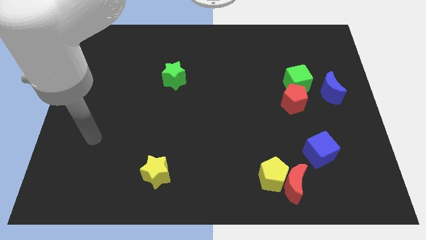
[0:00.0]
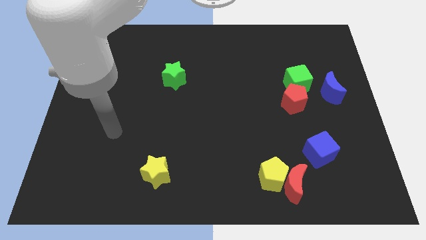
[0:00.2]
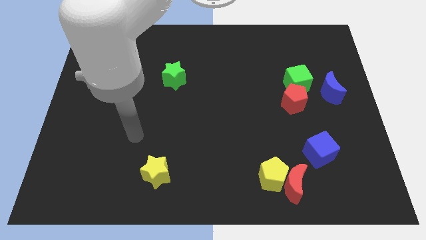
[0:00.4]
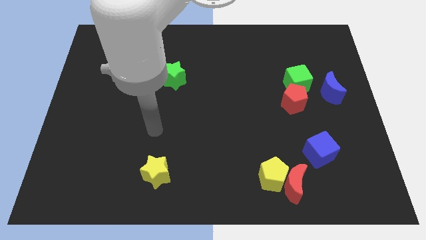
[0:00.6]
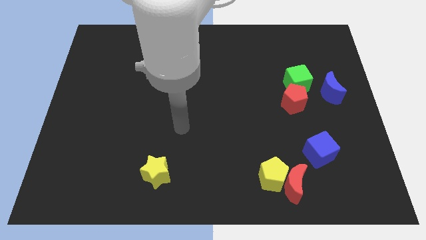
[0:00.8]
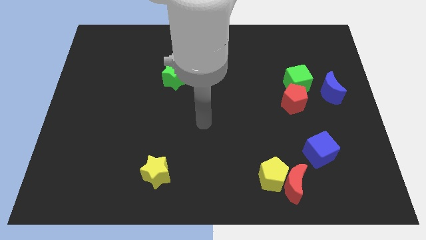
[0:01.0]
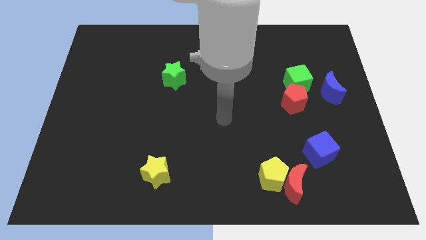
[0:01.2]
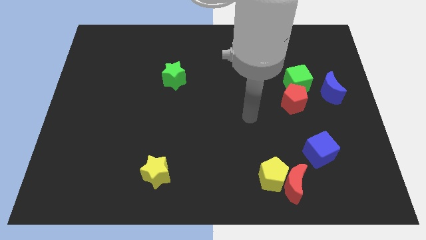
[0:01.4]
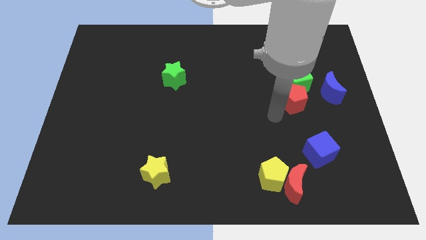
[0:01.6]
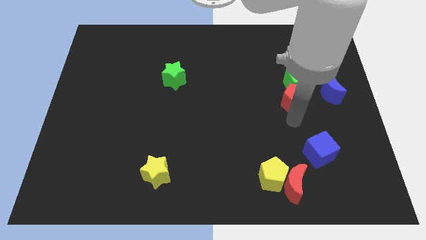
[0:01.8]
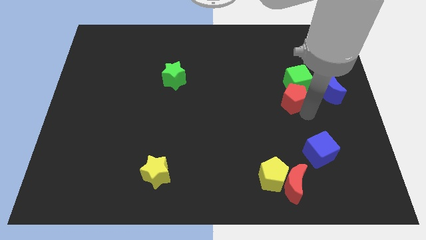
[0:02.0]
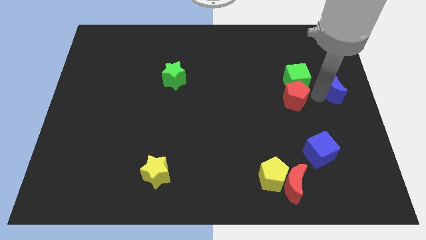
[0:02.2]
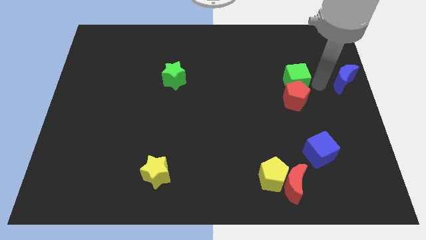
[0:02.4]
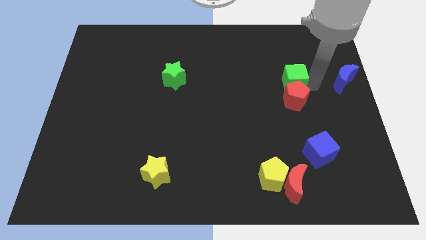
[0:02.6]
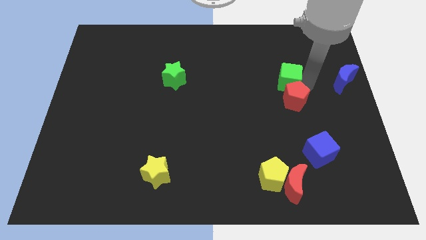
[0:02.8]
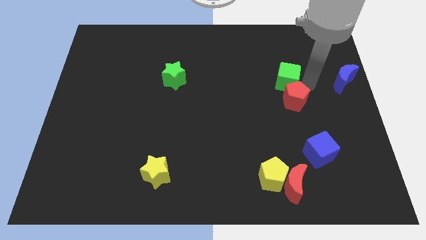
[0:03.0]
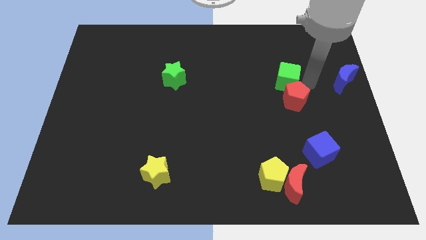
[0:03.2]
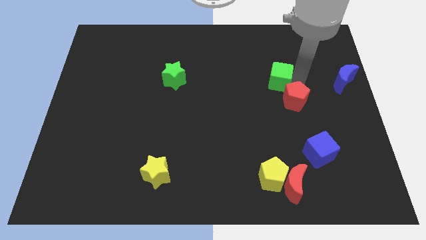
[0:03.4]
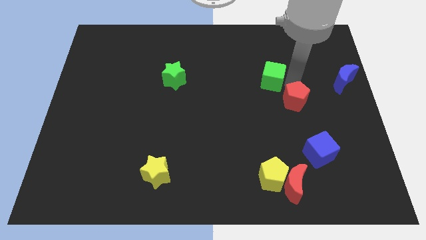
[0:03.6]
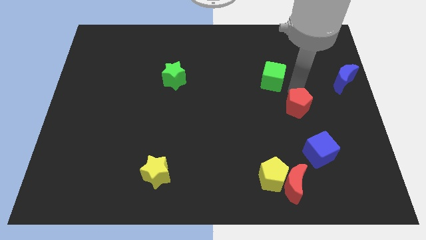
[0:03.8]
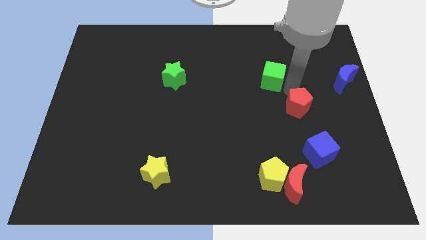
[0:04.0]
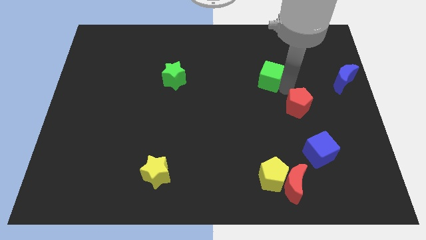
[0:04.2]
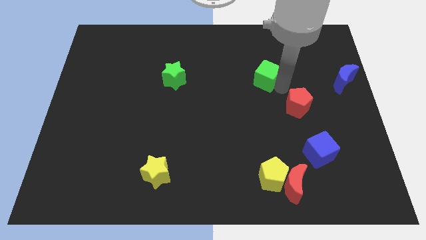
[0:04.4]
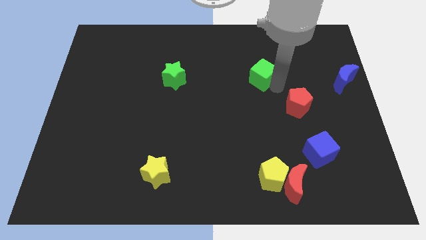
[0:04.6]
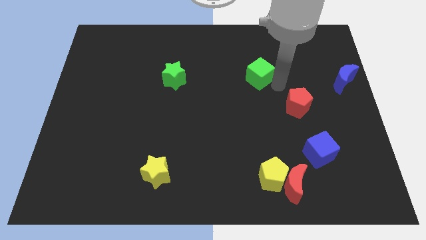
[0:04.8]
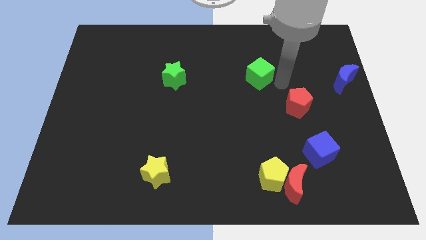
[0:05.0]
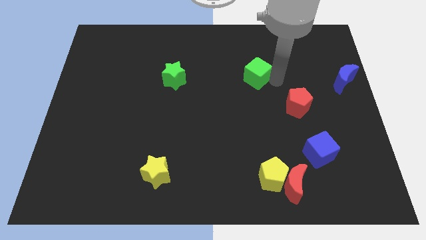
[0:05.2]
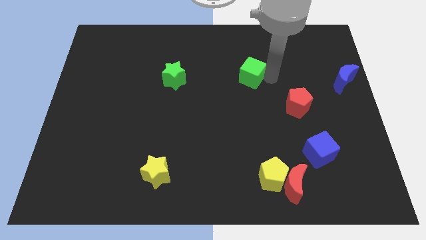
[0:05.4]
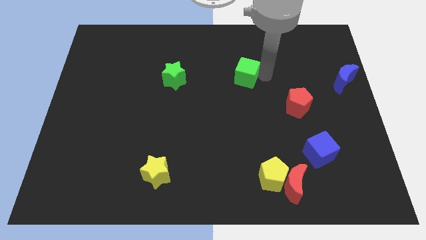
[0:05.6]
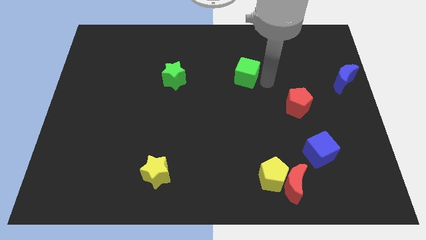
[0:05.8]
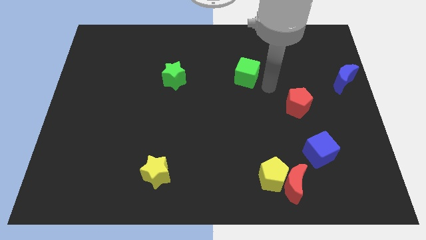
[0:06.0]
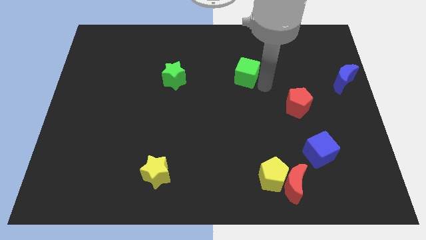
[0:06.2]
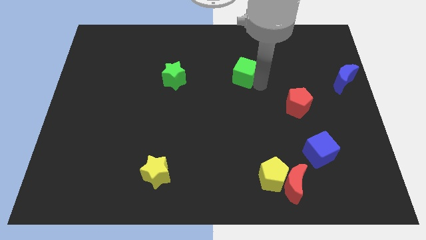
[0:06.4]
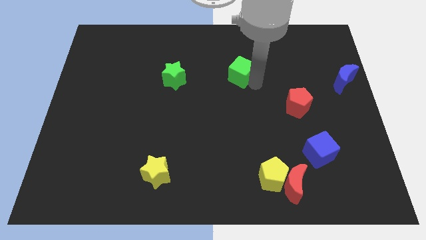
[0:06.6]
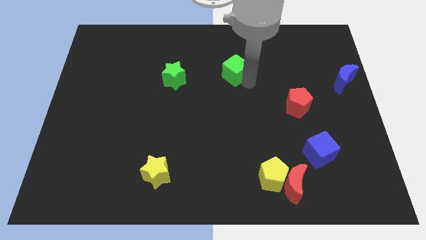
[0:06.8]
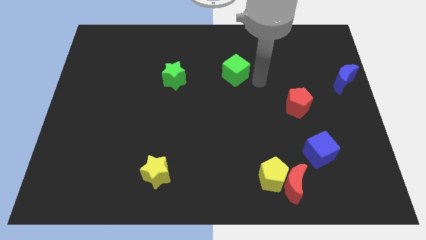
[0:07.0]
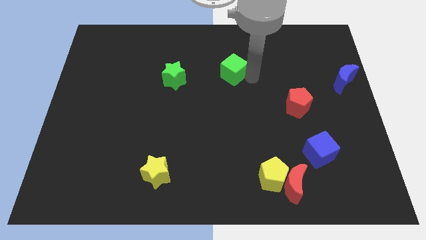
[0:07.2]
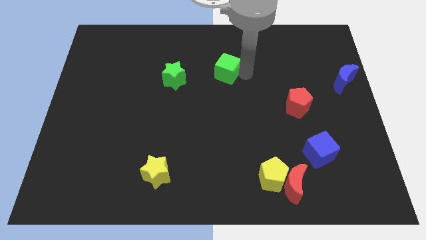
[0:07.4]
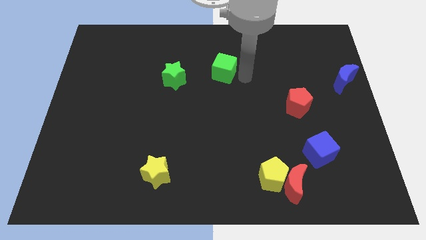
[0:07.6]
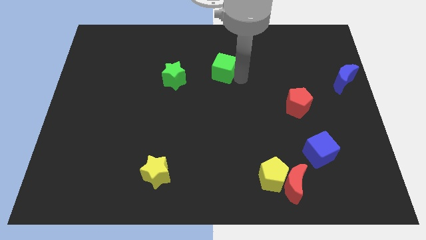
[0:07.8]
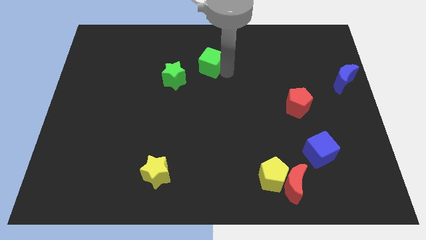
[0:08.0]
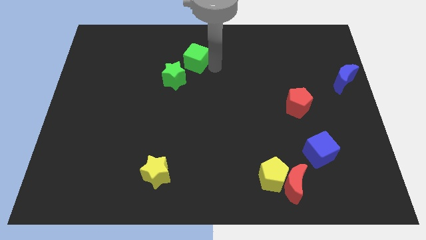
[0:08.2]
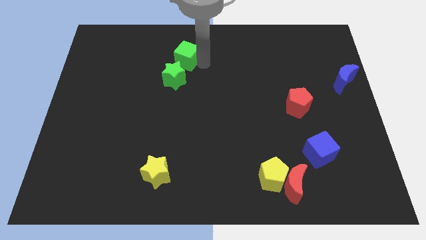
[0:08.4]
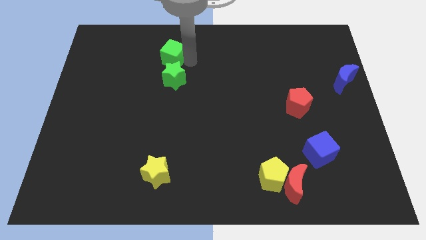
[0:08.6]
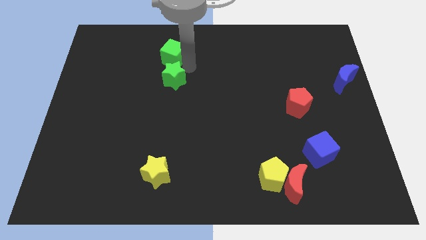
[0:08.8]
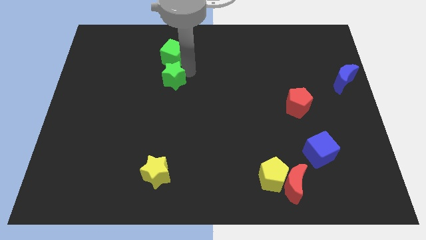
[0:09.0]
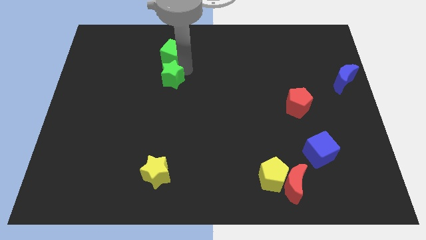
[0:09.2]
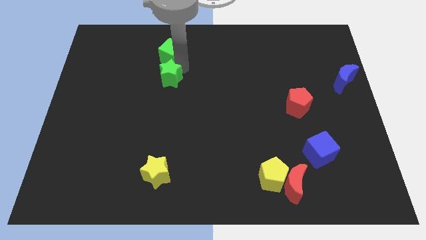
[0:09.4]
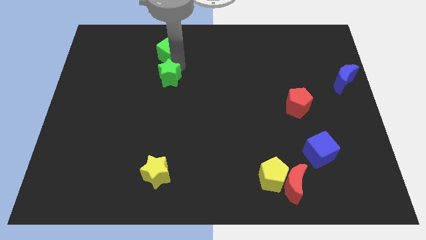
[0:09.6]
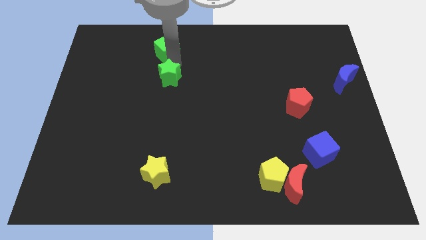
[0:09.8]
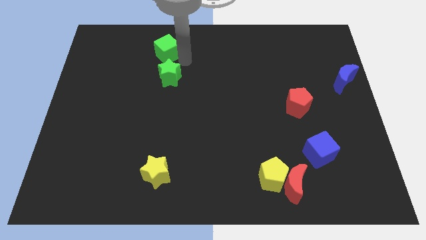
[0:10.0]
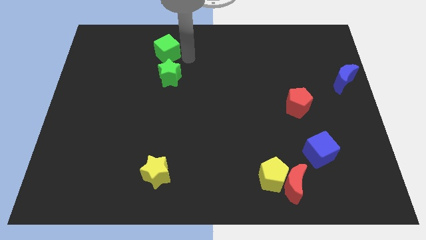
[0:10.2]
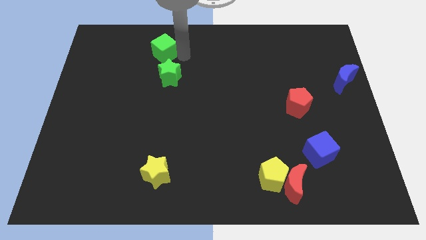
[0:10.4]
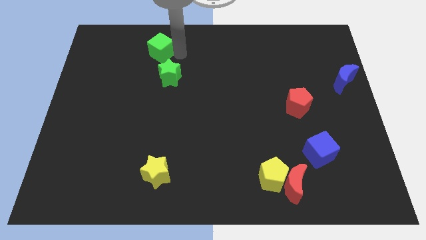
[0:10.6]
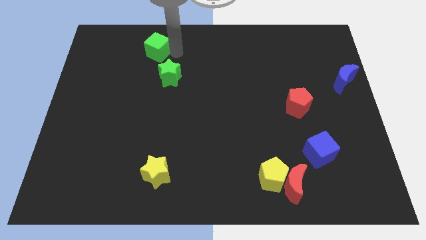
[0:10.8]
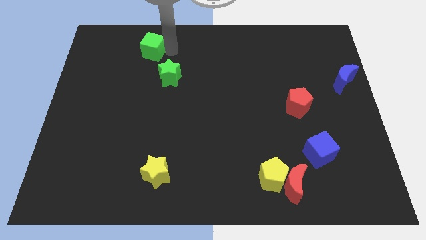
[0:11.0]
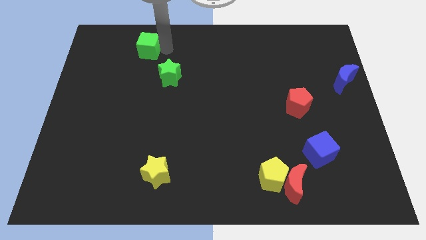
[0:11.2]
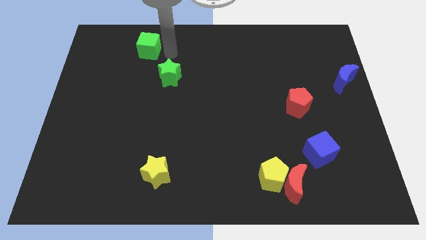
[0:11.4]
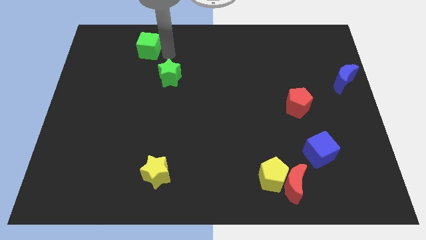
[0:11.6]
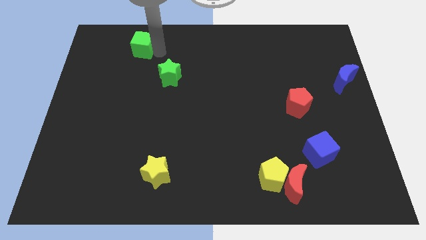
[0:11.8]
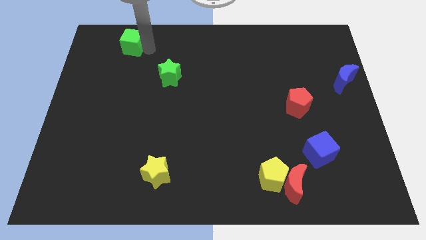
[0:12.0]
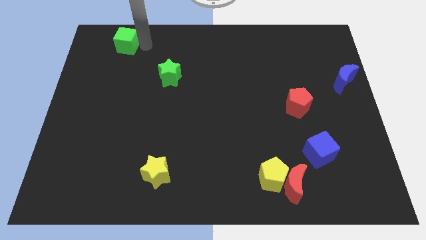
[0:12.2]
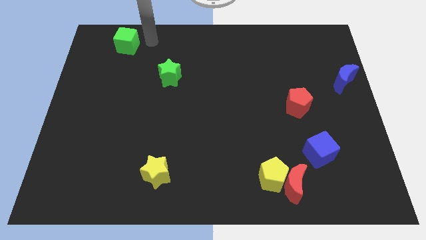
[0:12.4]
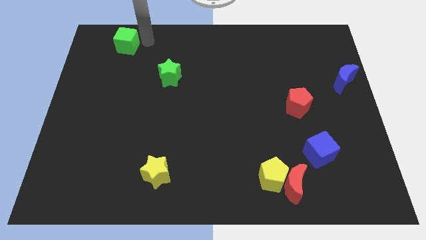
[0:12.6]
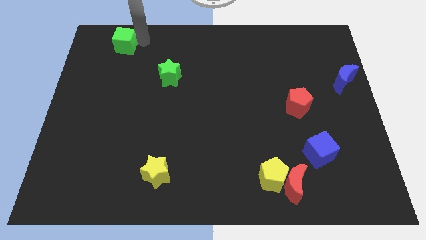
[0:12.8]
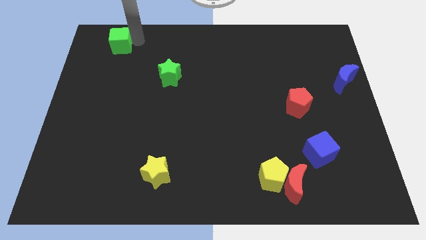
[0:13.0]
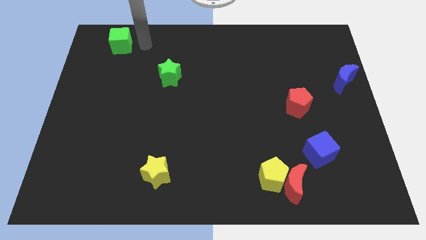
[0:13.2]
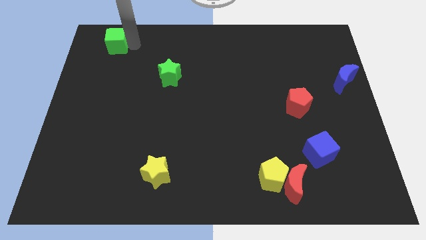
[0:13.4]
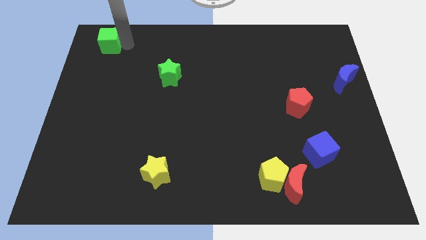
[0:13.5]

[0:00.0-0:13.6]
slide the green cube to the top left of the board
